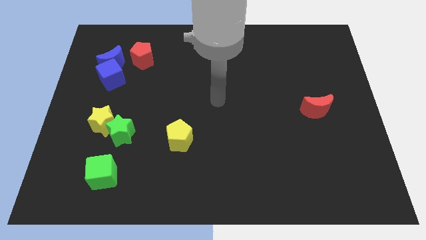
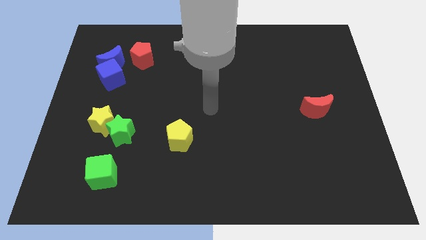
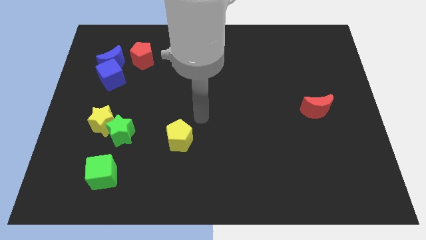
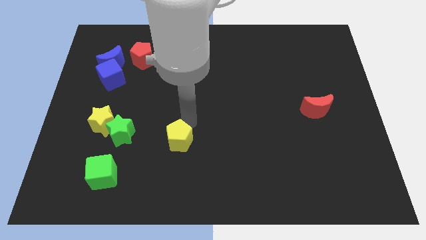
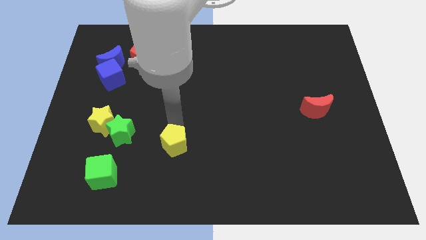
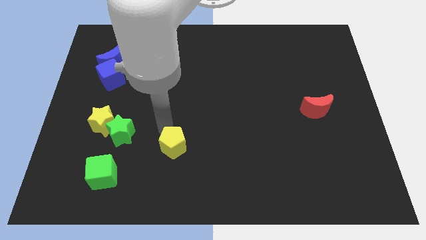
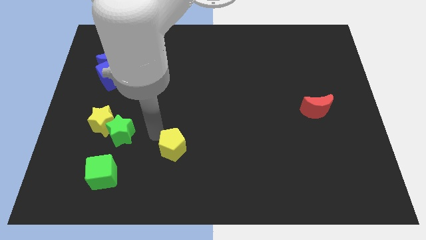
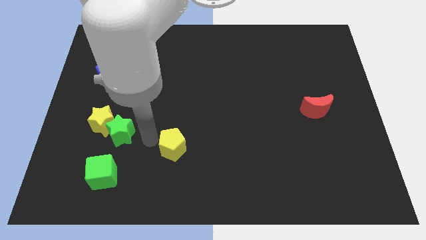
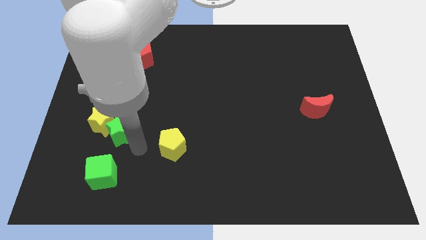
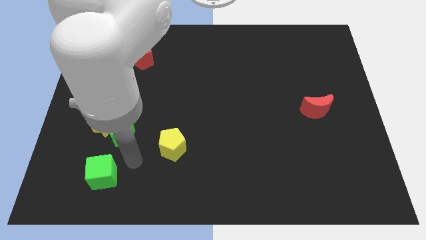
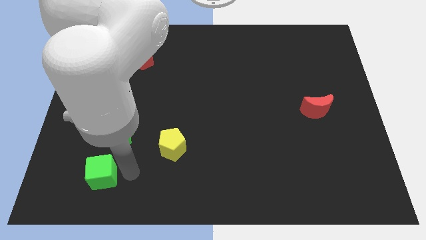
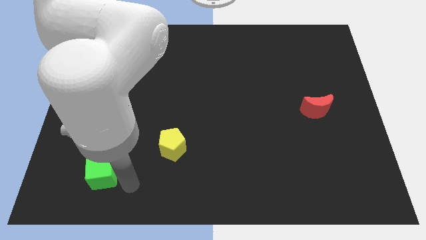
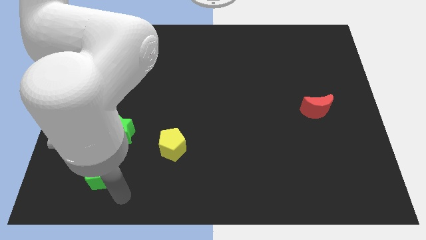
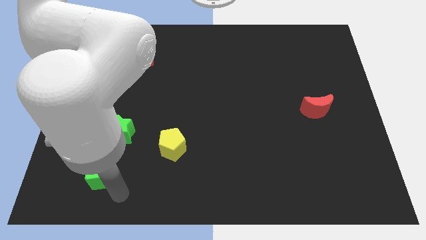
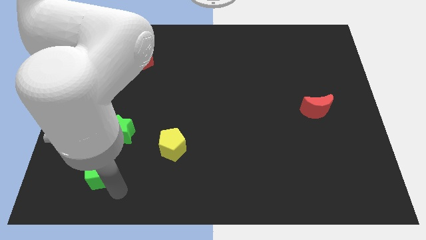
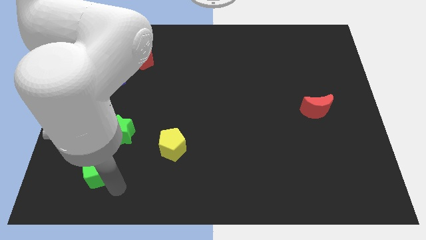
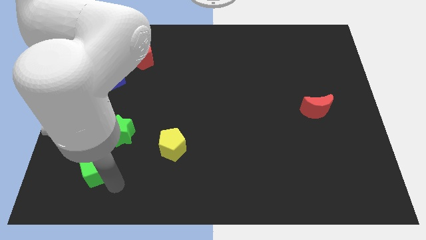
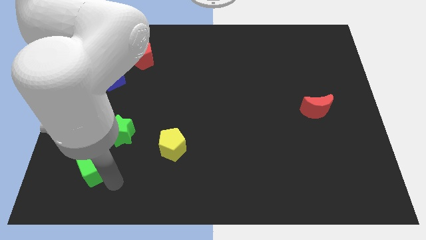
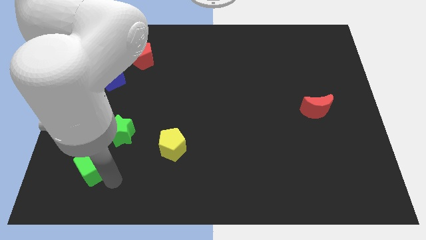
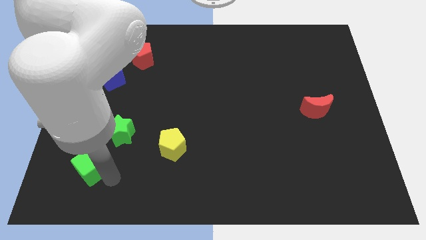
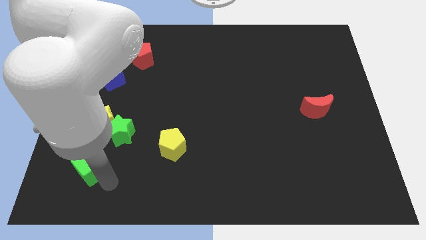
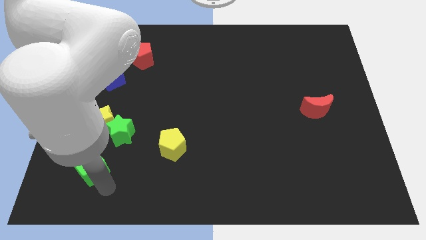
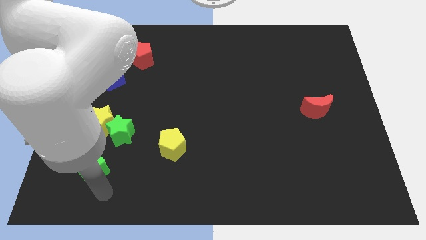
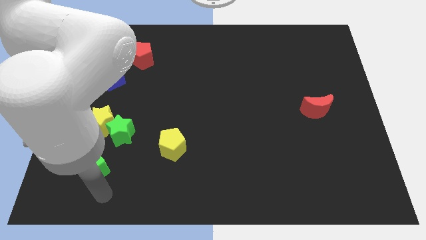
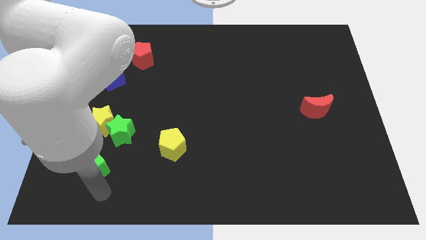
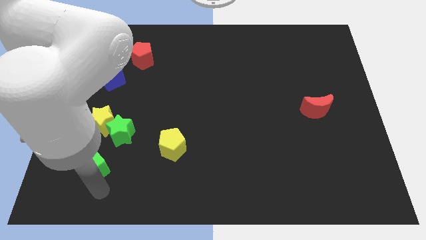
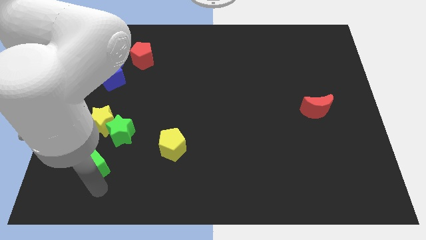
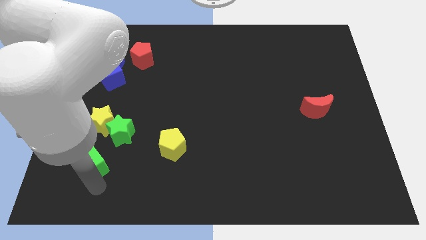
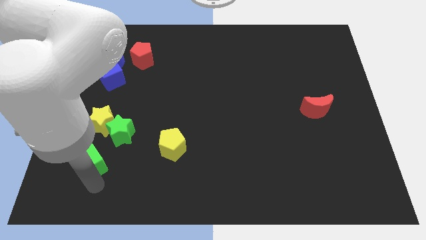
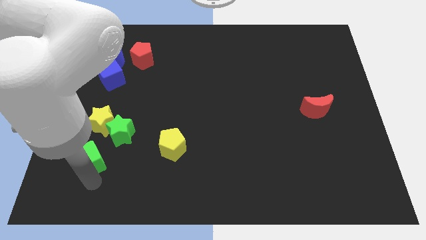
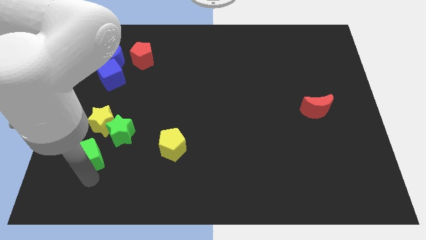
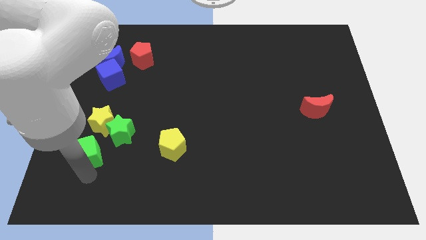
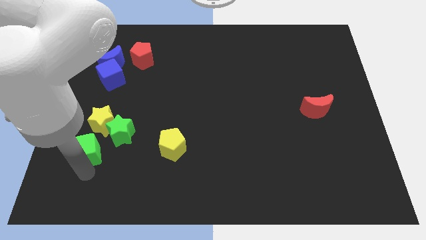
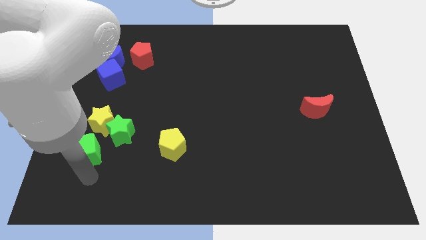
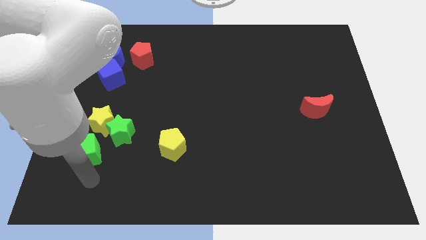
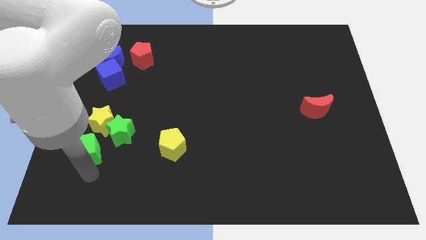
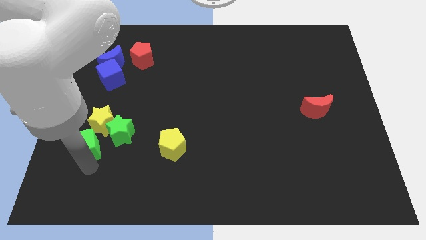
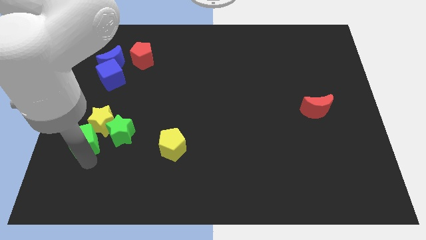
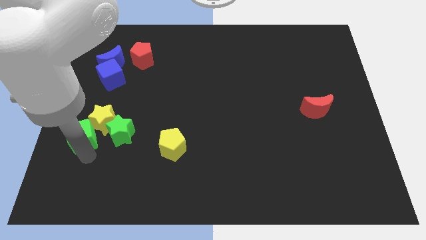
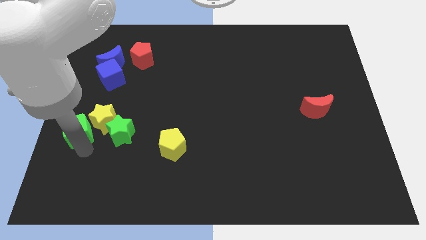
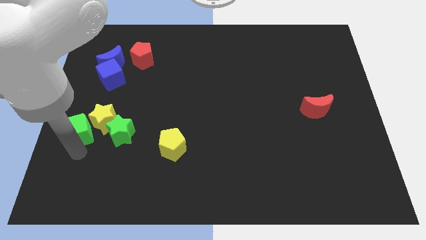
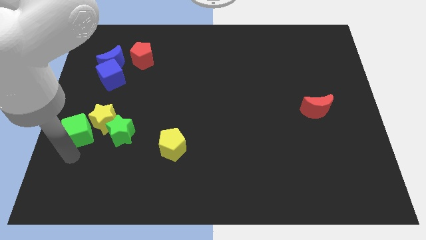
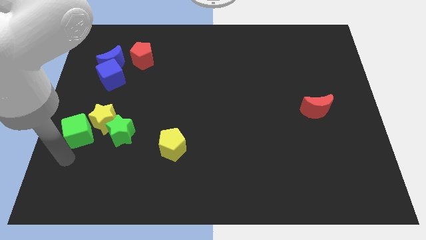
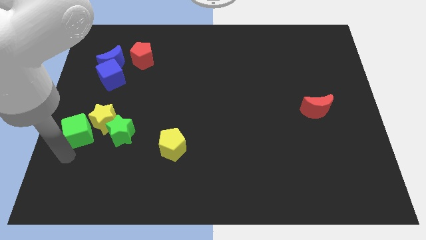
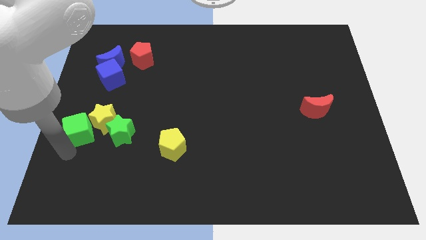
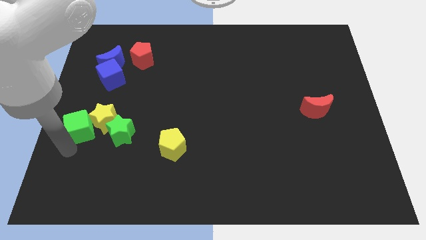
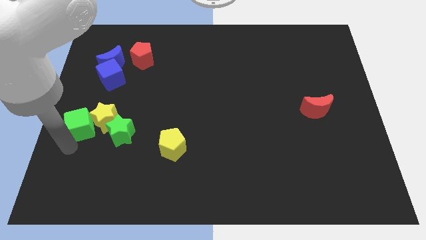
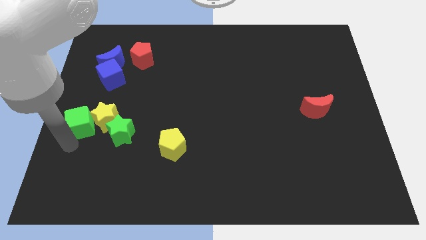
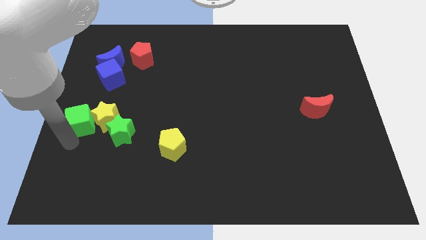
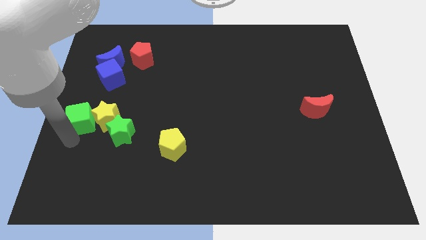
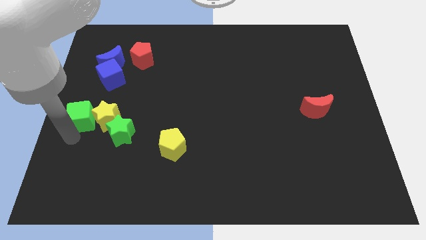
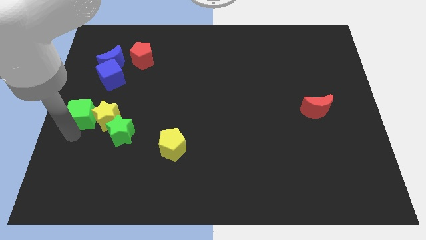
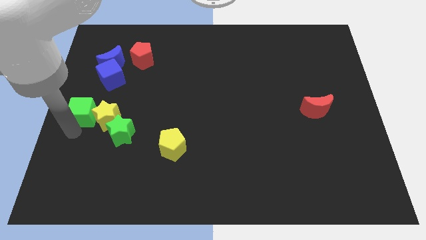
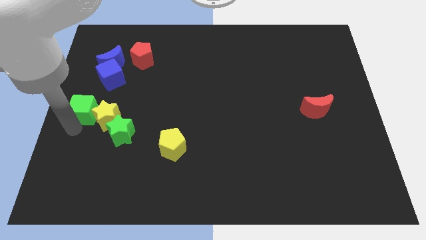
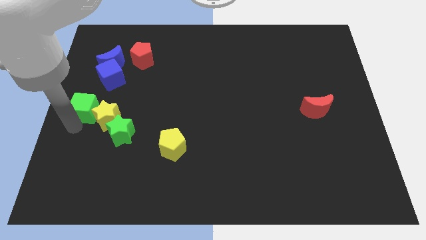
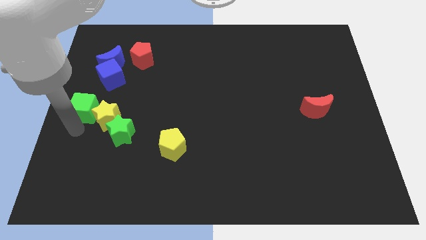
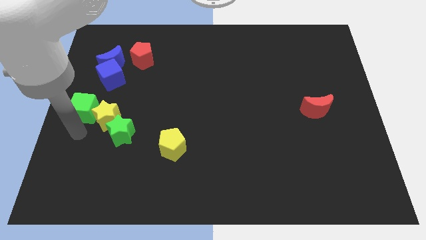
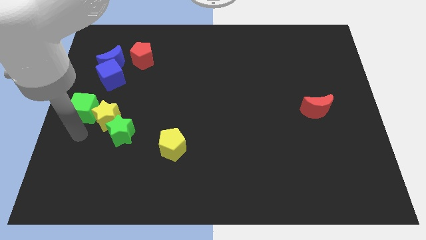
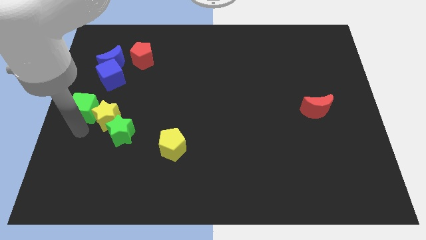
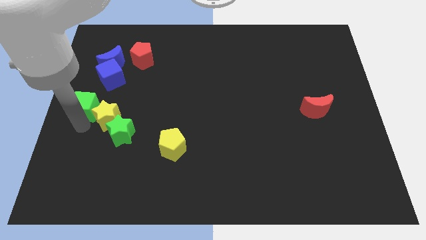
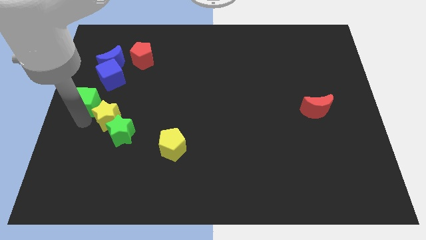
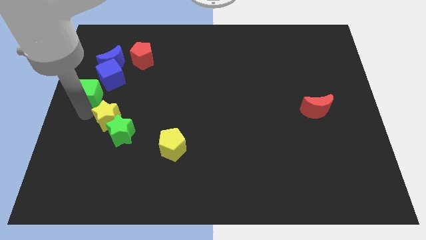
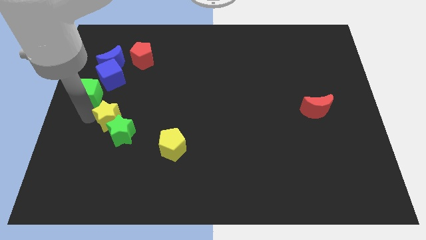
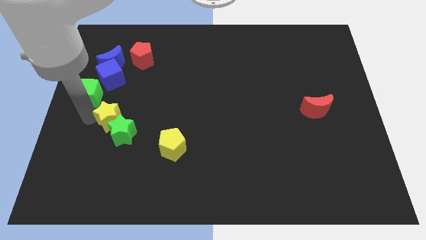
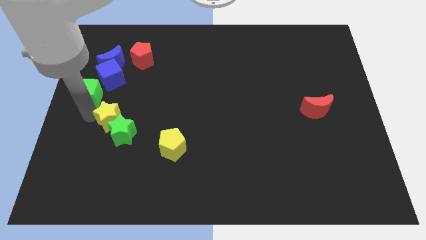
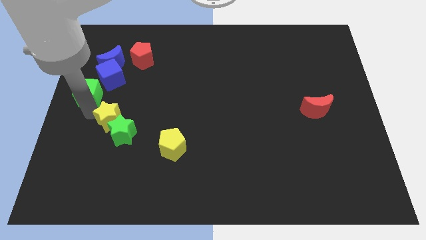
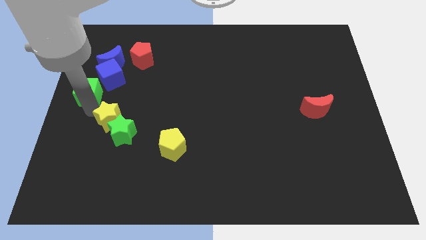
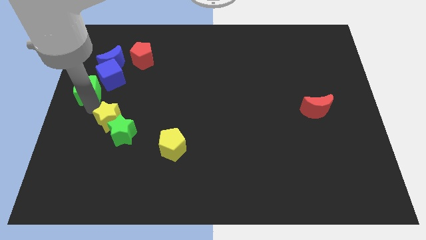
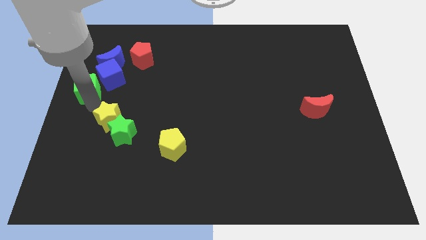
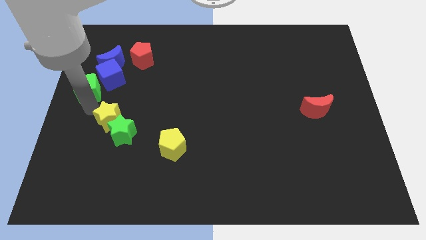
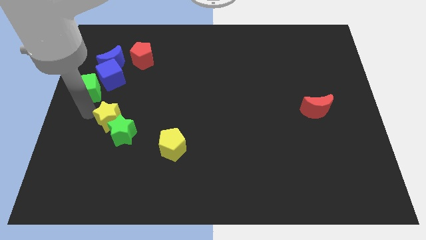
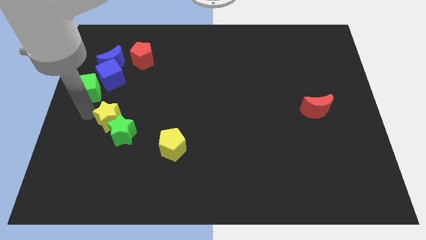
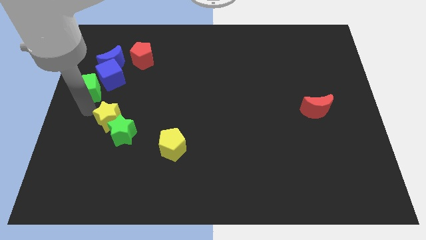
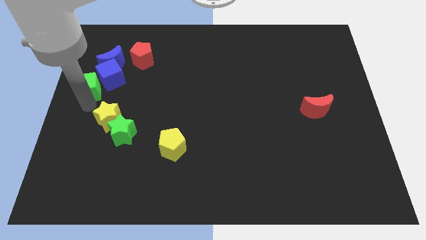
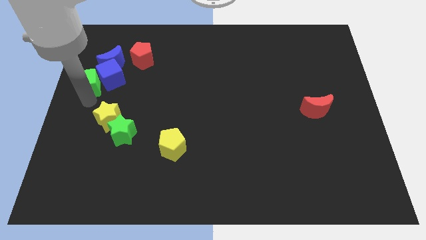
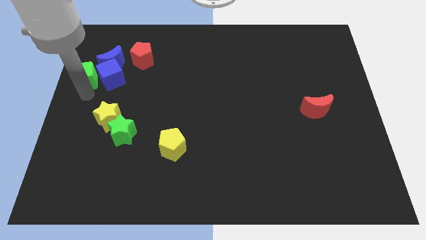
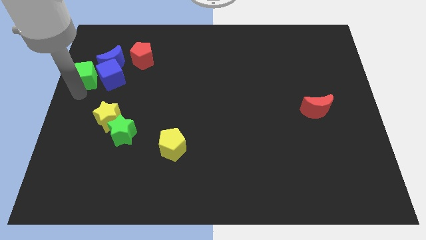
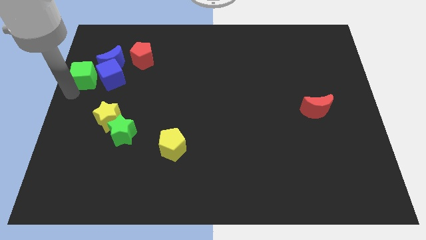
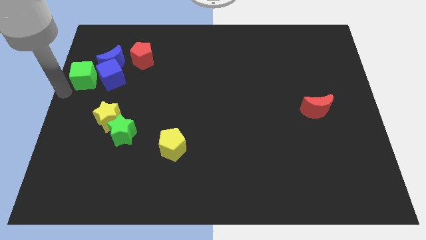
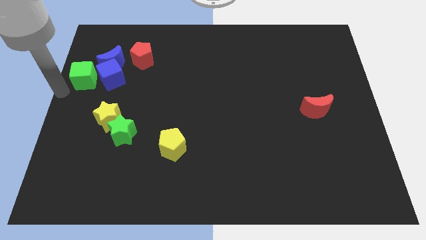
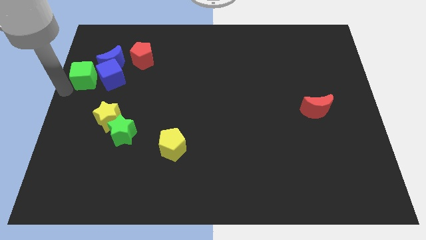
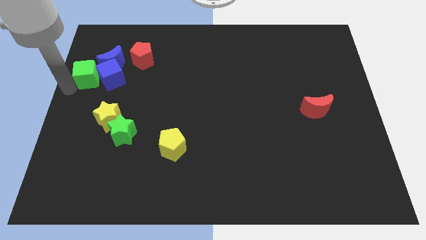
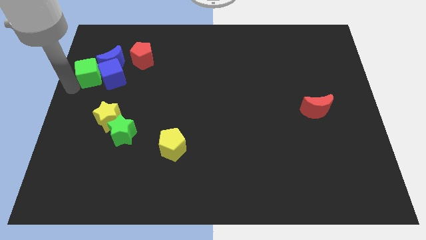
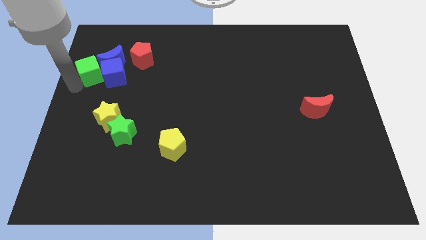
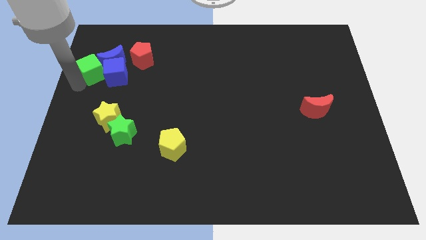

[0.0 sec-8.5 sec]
move the green cube towards the blue moon
